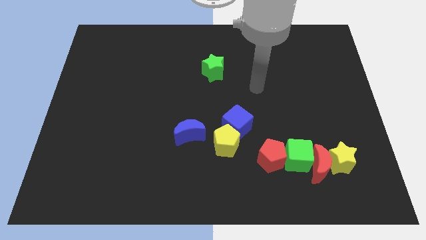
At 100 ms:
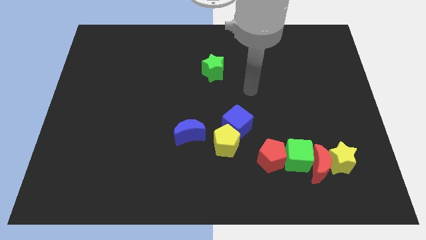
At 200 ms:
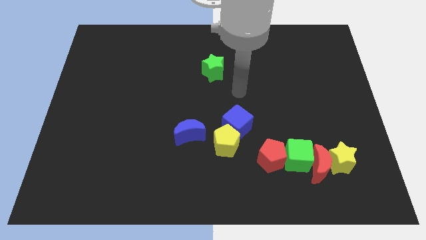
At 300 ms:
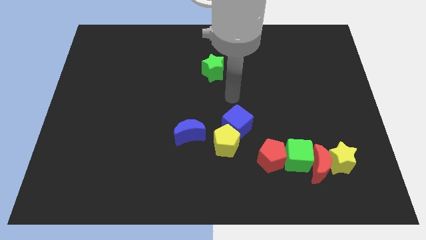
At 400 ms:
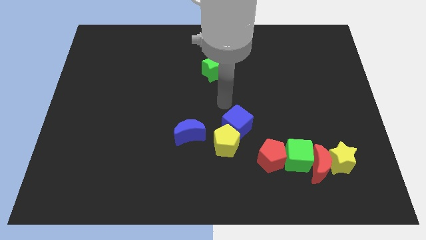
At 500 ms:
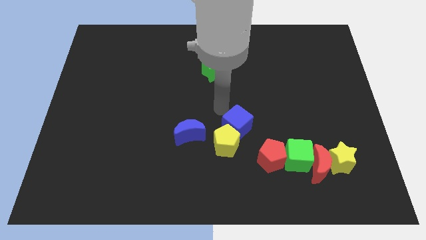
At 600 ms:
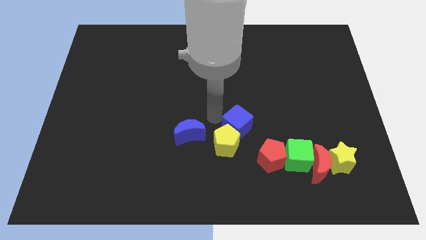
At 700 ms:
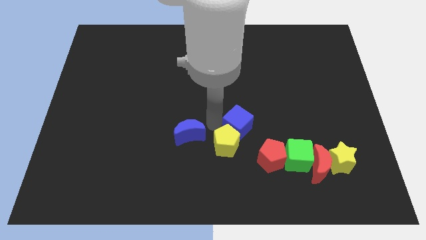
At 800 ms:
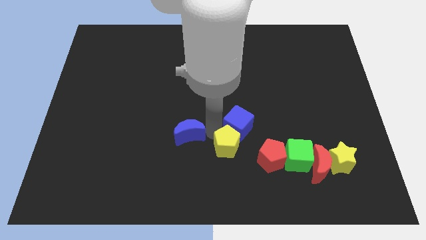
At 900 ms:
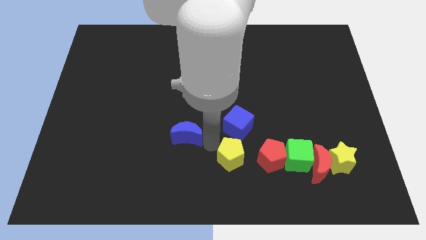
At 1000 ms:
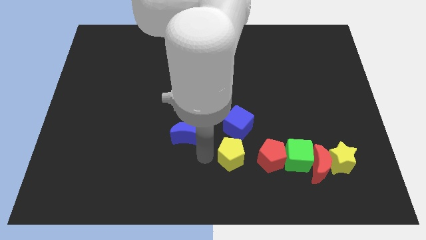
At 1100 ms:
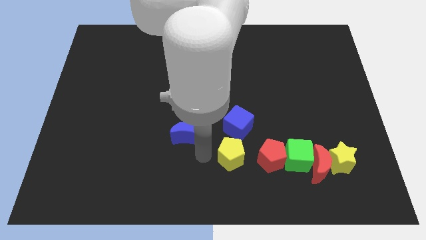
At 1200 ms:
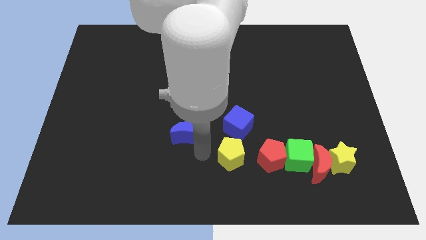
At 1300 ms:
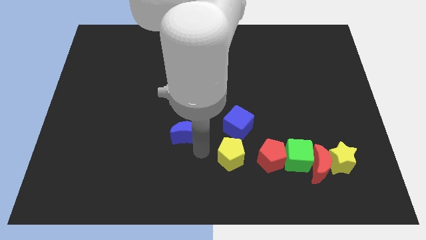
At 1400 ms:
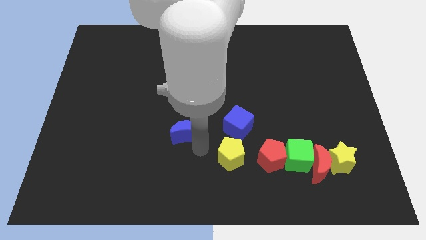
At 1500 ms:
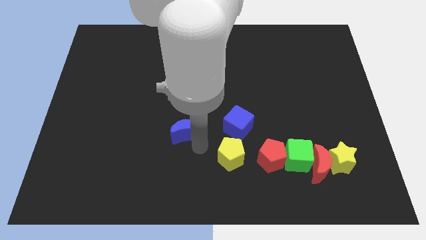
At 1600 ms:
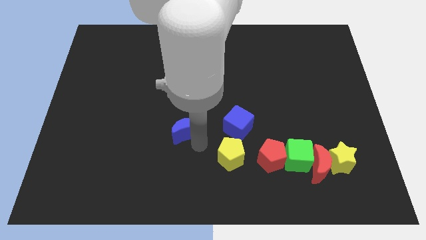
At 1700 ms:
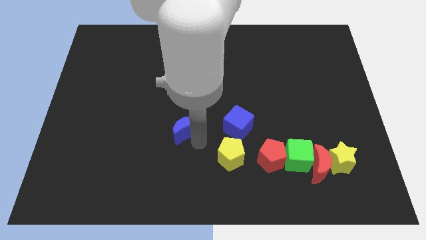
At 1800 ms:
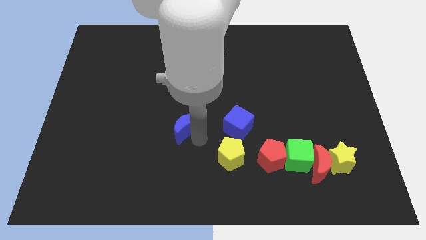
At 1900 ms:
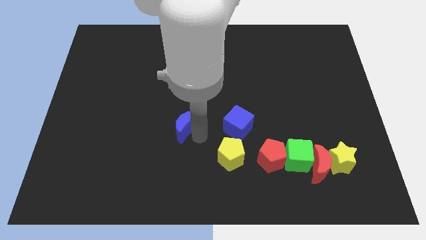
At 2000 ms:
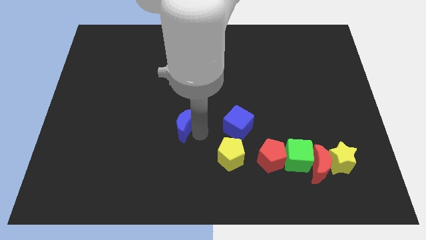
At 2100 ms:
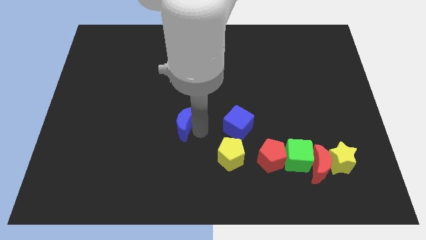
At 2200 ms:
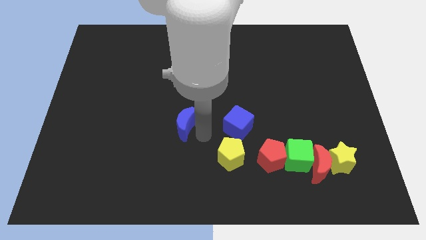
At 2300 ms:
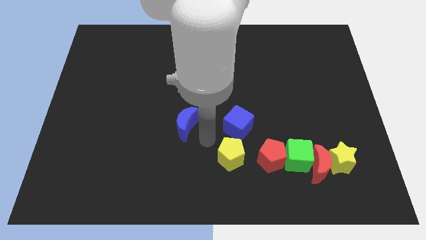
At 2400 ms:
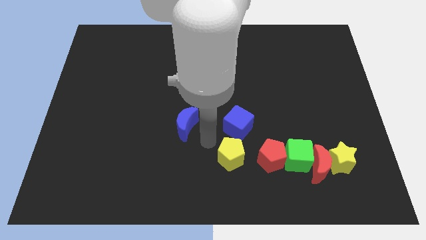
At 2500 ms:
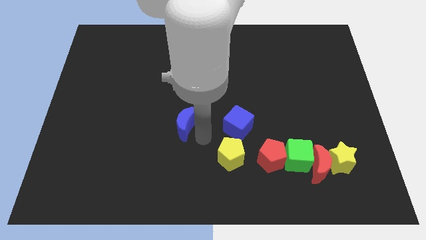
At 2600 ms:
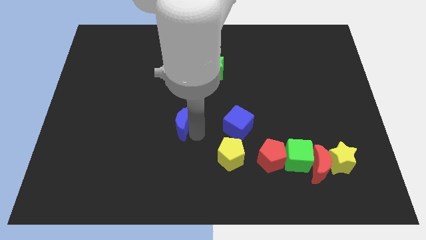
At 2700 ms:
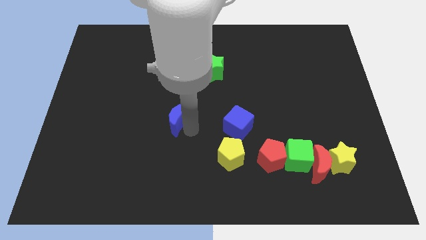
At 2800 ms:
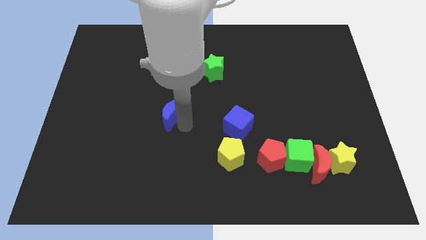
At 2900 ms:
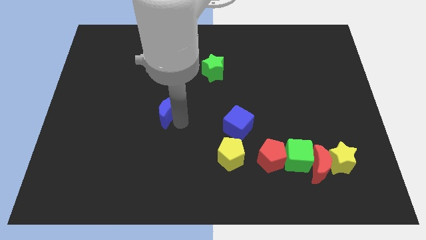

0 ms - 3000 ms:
slide the blue moon a little bit up and left diagonally

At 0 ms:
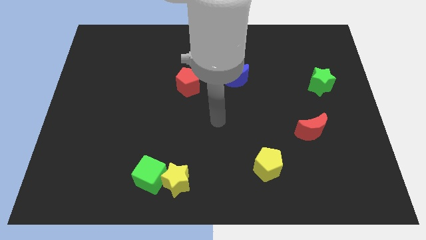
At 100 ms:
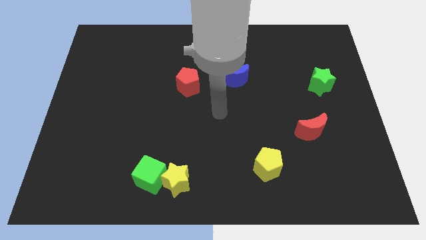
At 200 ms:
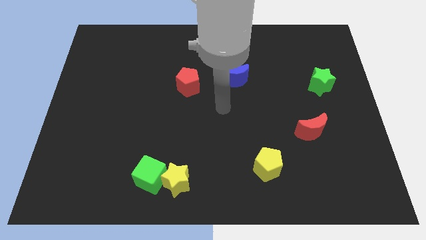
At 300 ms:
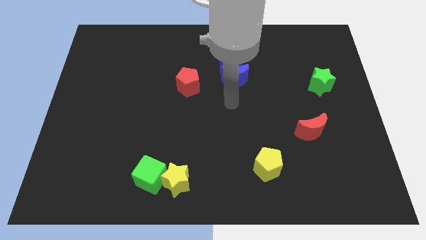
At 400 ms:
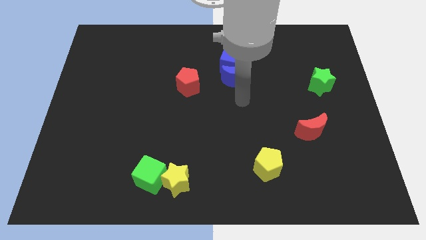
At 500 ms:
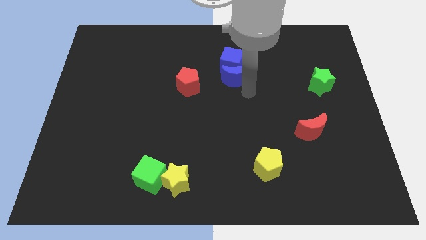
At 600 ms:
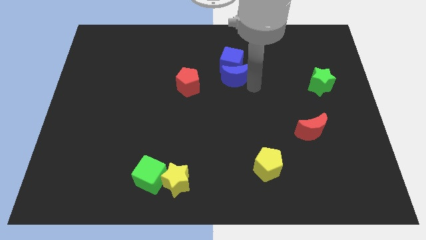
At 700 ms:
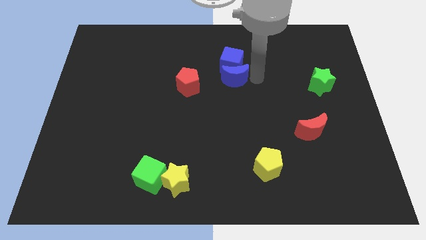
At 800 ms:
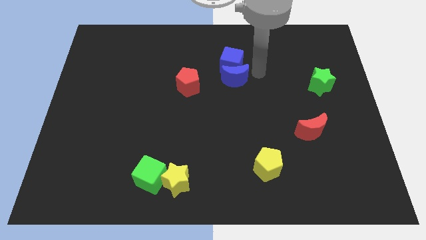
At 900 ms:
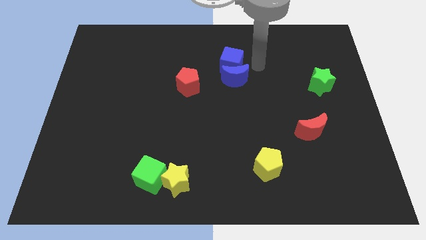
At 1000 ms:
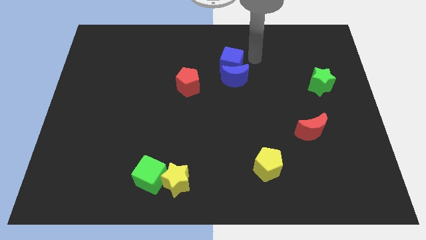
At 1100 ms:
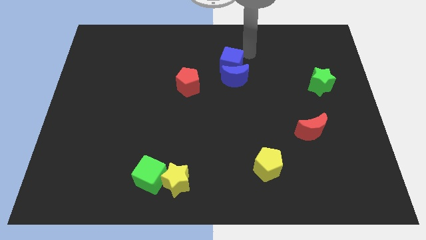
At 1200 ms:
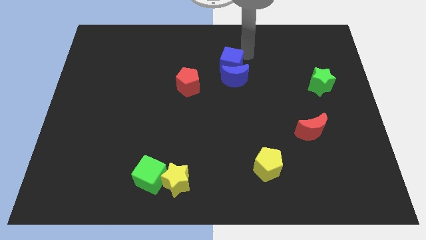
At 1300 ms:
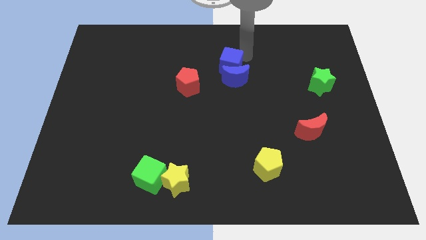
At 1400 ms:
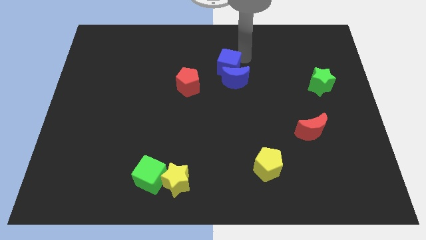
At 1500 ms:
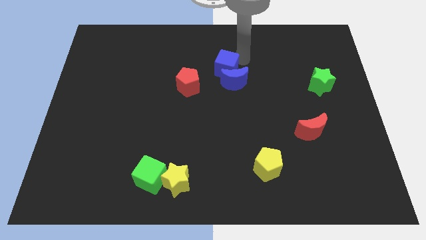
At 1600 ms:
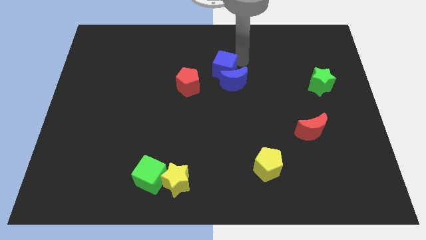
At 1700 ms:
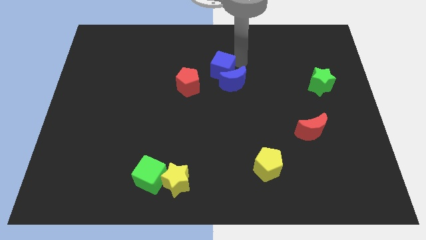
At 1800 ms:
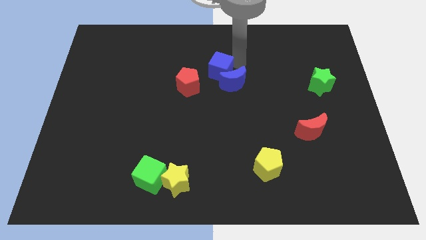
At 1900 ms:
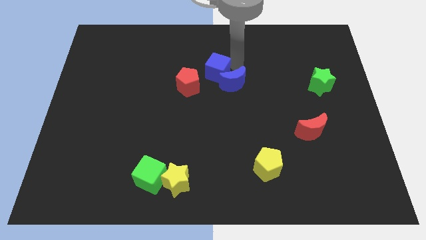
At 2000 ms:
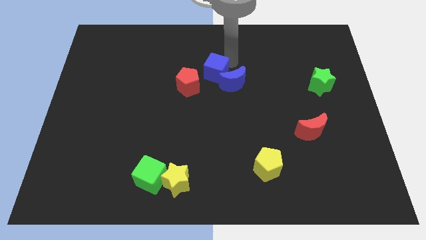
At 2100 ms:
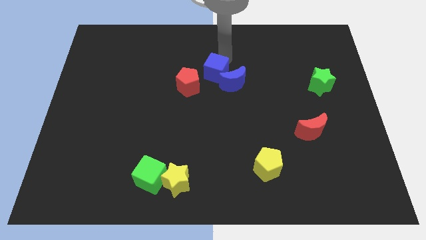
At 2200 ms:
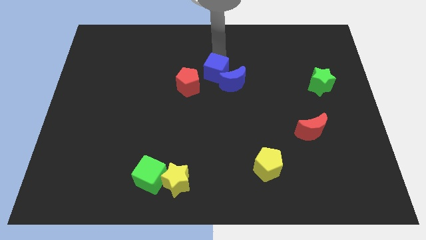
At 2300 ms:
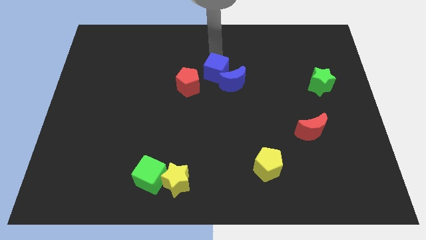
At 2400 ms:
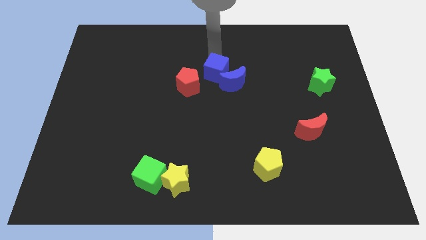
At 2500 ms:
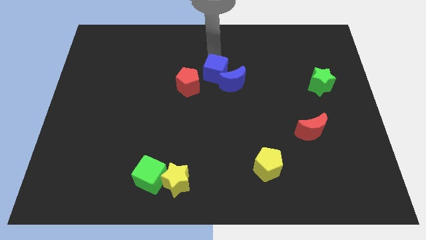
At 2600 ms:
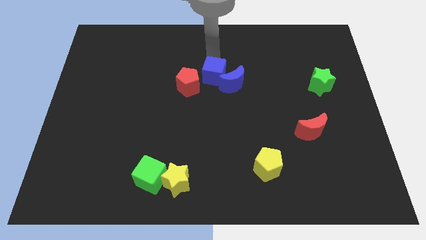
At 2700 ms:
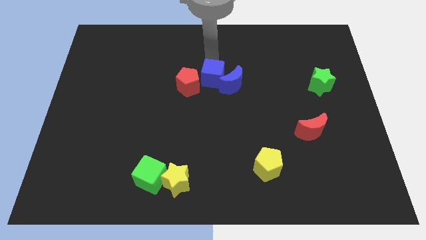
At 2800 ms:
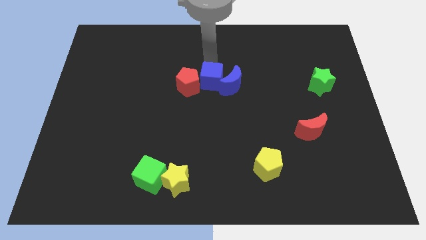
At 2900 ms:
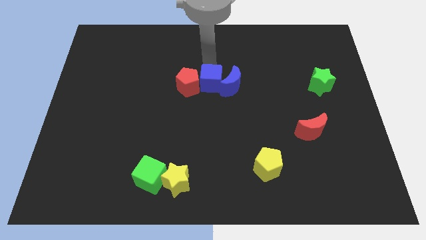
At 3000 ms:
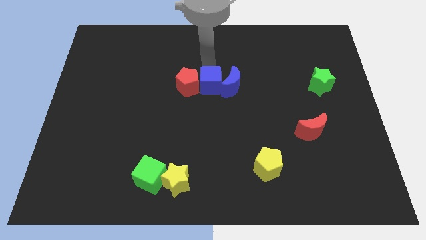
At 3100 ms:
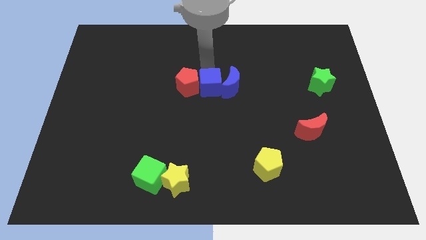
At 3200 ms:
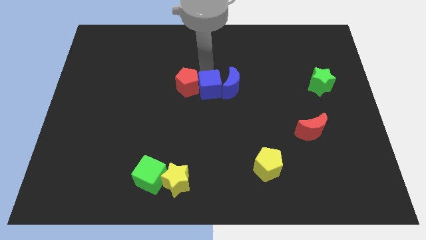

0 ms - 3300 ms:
move the blue cube down slightly

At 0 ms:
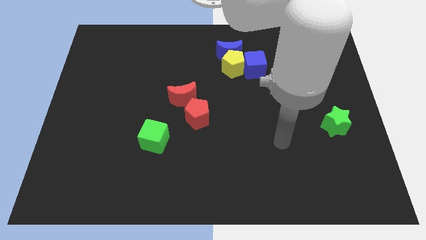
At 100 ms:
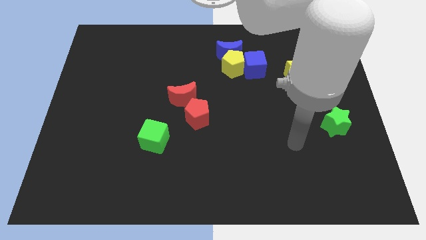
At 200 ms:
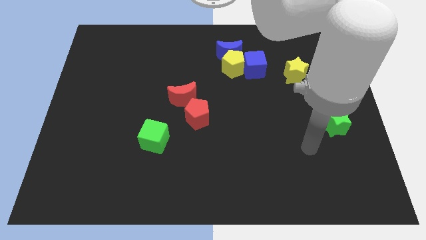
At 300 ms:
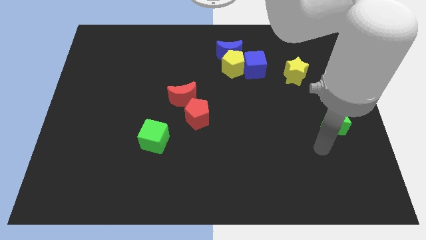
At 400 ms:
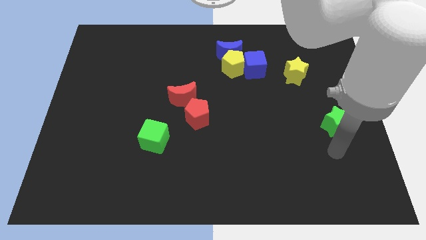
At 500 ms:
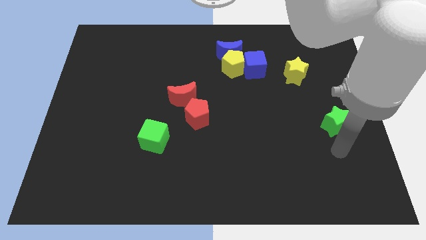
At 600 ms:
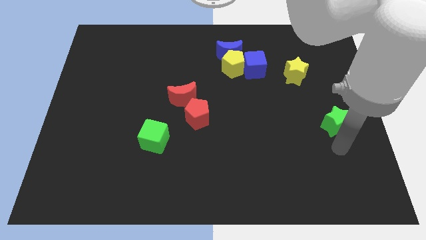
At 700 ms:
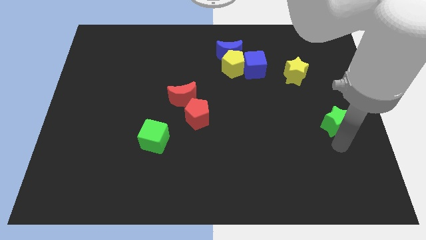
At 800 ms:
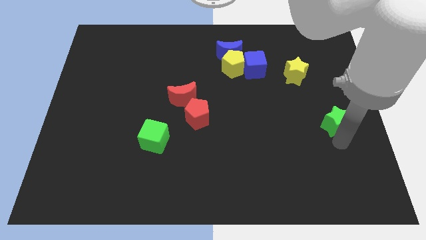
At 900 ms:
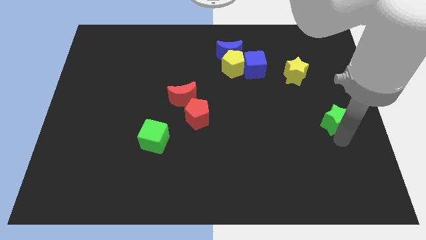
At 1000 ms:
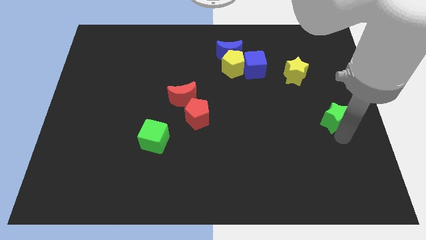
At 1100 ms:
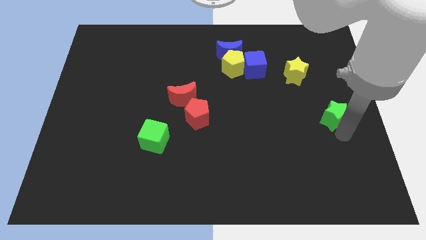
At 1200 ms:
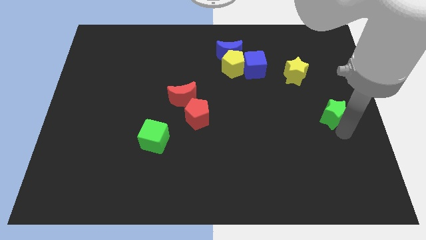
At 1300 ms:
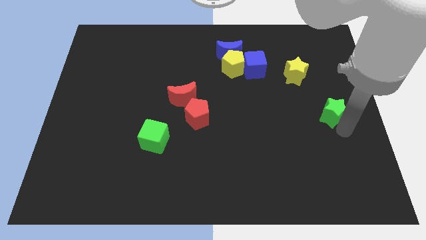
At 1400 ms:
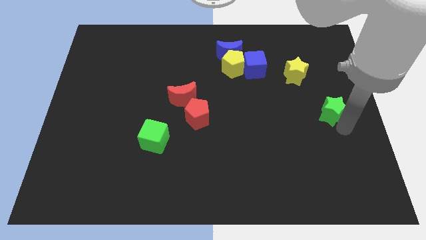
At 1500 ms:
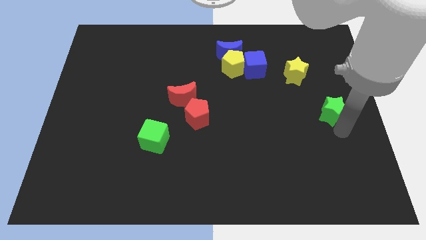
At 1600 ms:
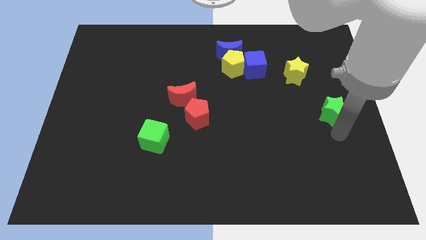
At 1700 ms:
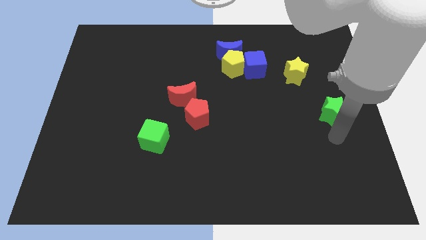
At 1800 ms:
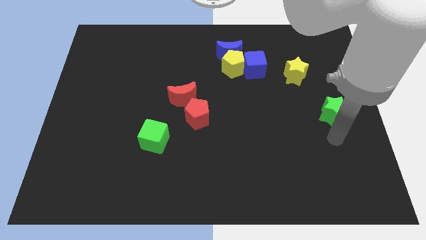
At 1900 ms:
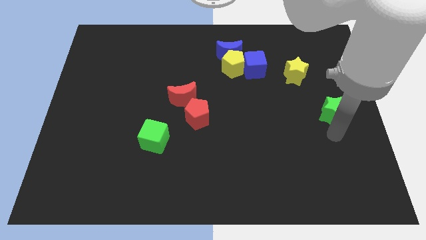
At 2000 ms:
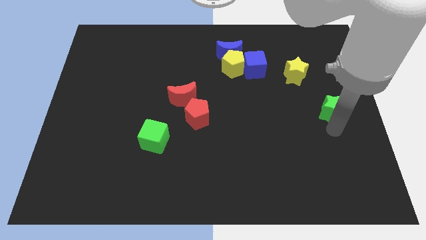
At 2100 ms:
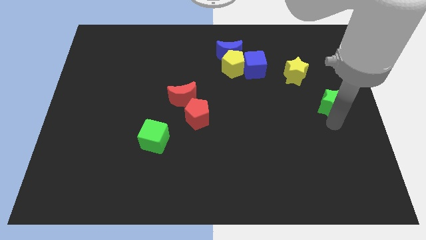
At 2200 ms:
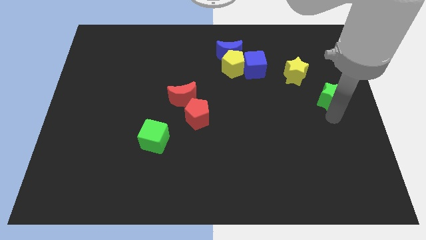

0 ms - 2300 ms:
slightly slide the green star upwards
